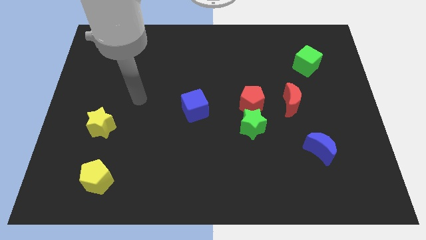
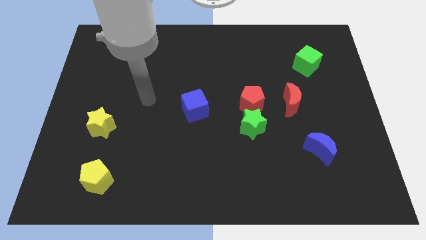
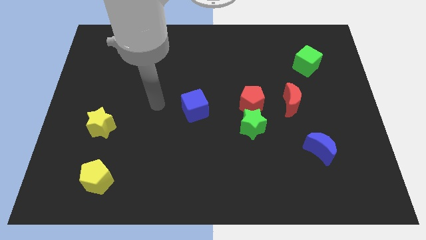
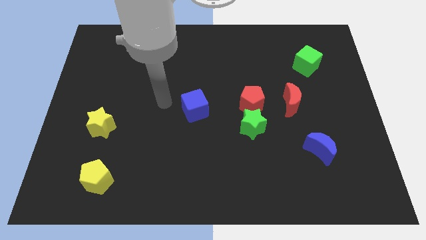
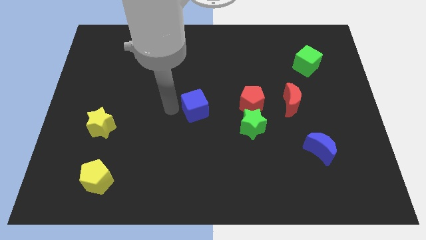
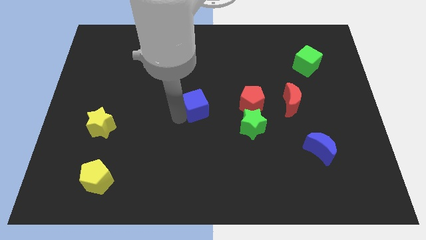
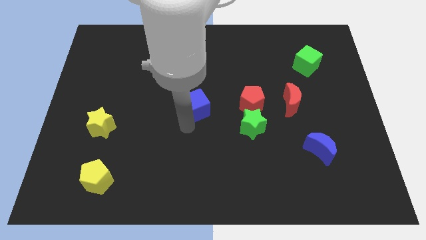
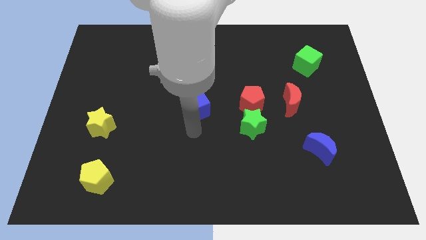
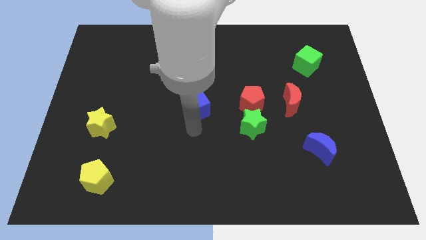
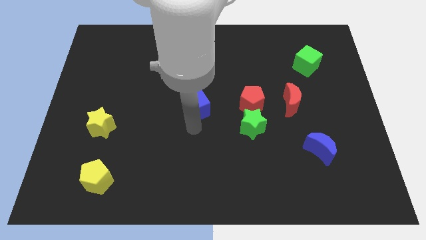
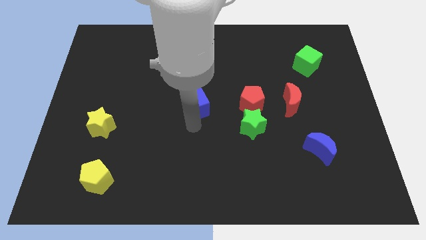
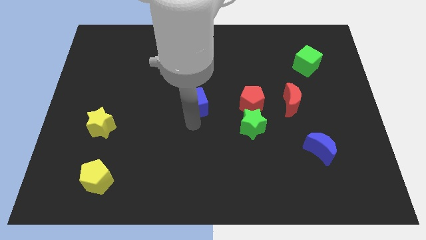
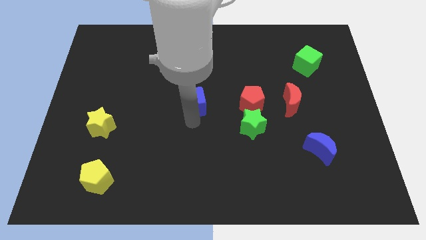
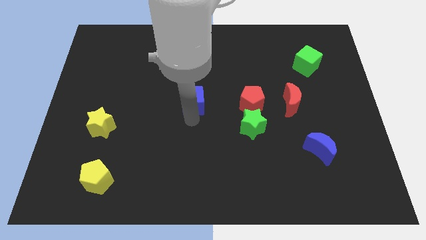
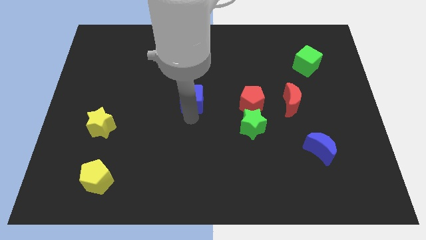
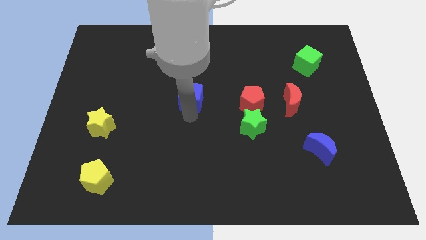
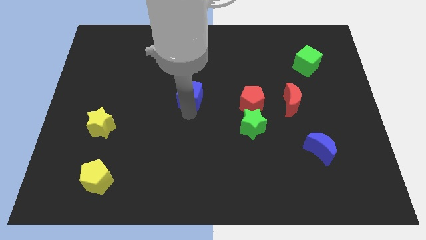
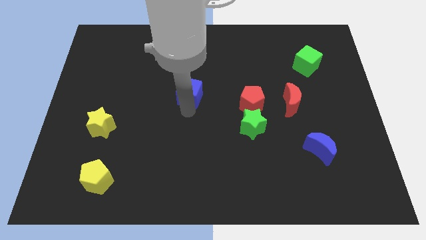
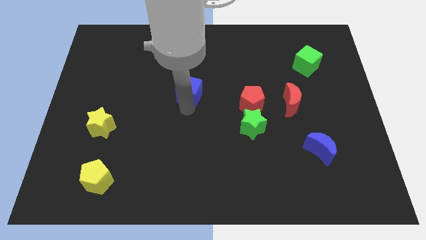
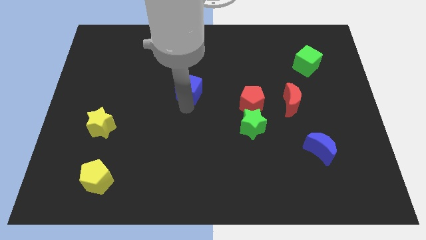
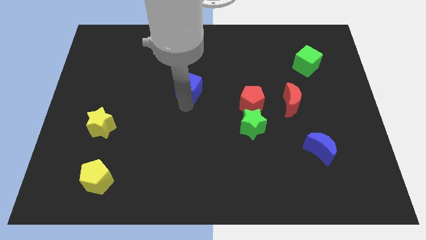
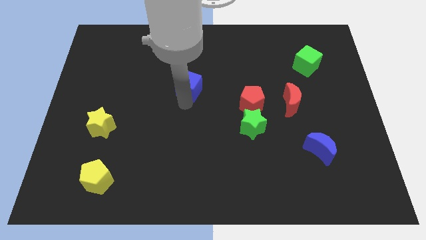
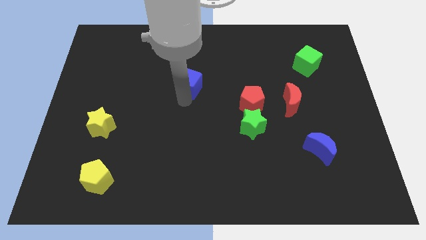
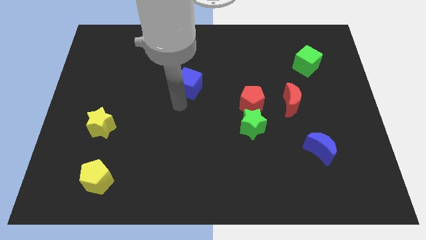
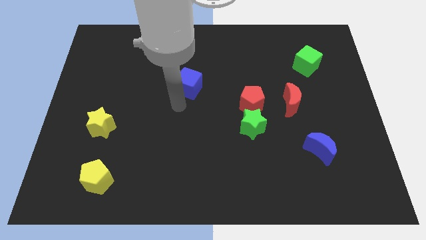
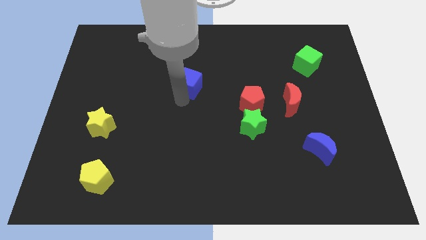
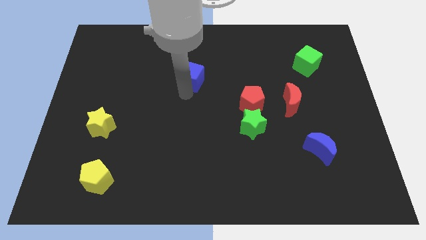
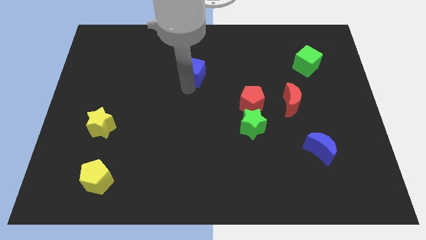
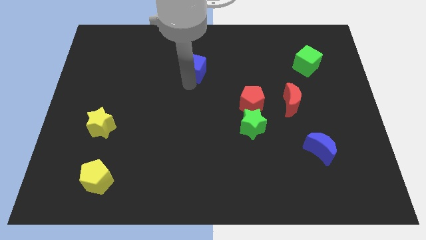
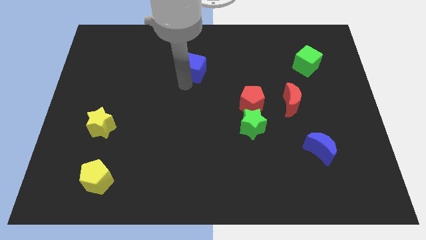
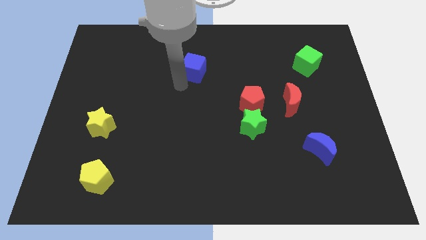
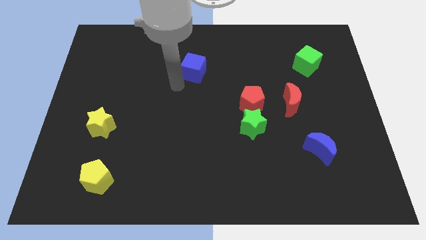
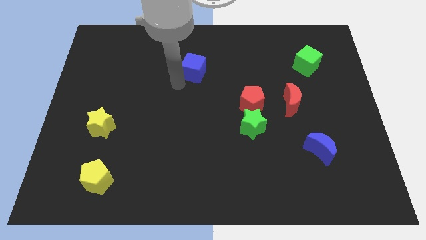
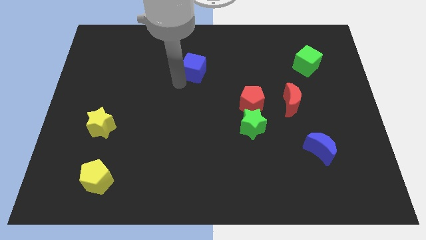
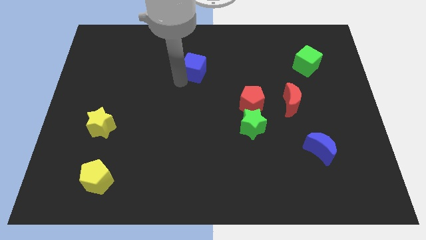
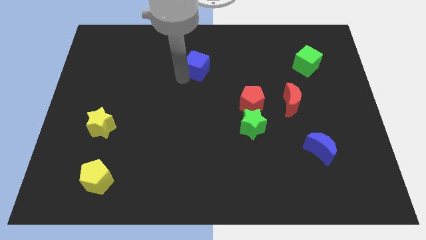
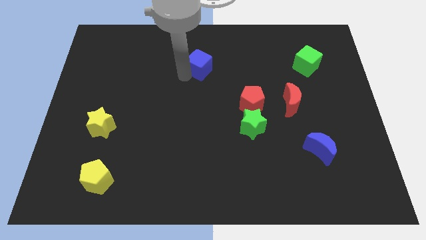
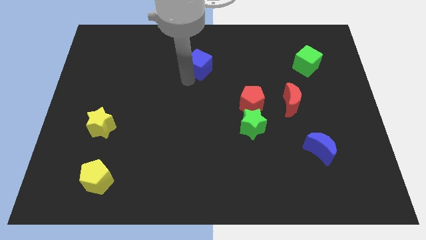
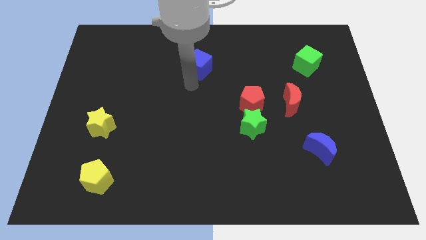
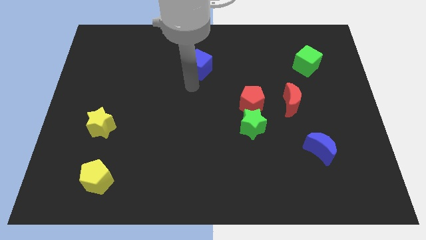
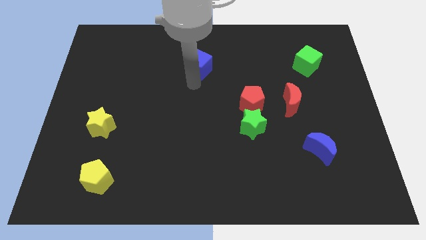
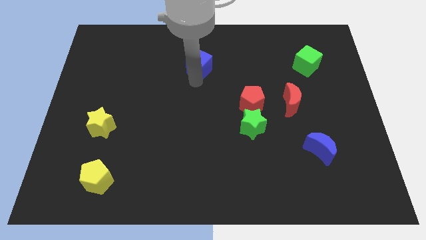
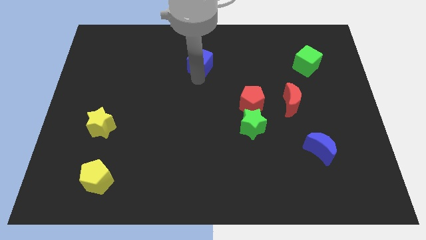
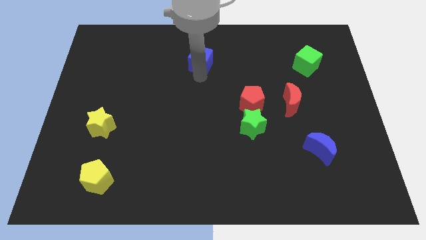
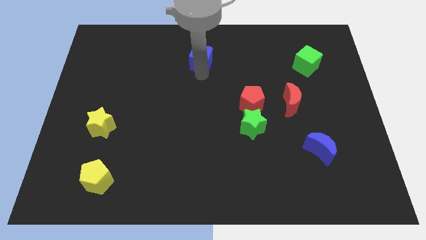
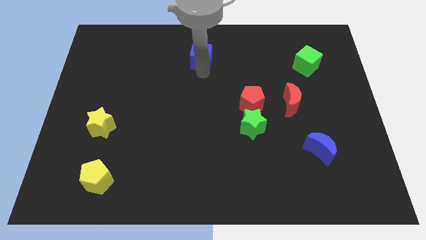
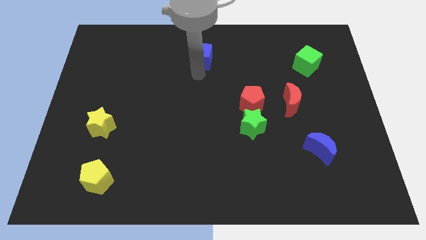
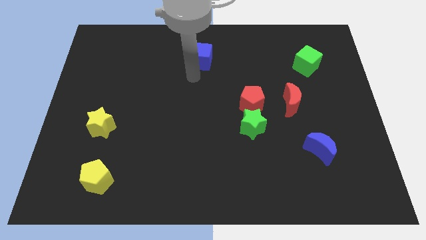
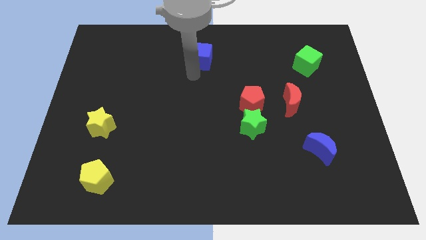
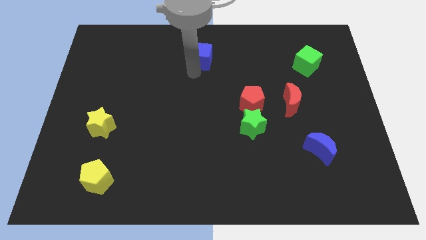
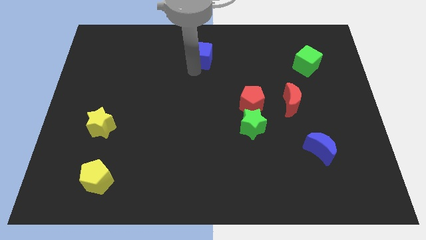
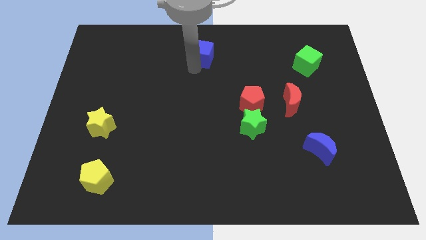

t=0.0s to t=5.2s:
push the blue cube to the top
